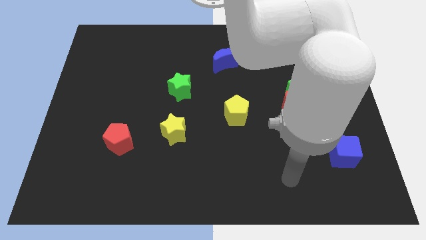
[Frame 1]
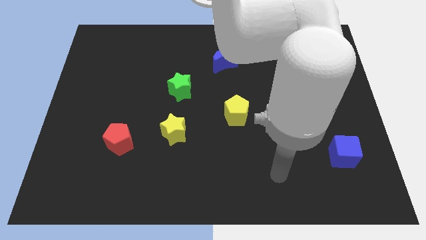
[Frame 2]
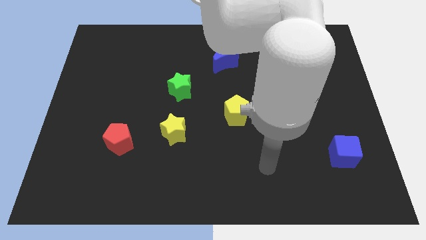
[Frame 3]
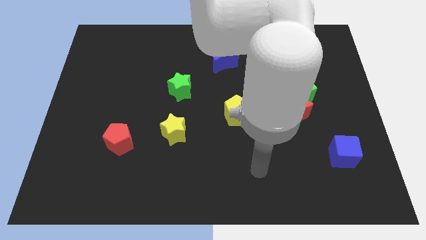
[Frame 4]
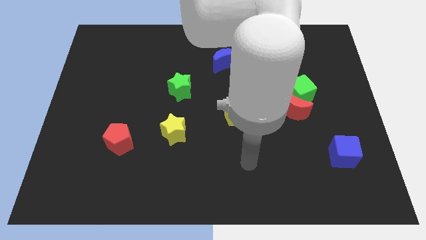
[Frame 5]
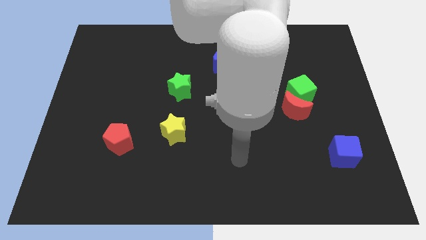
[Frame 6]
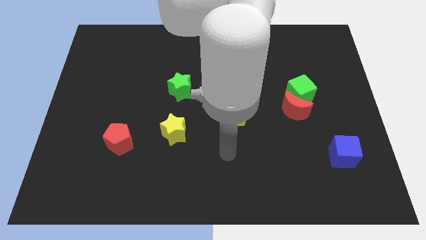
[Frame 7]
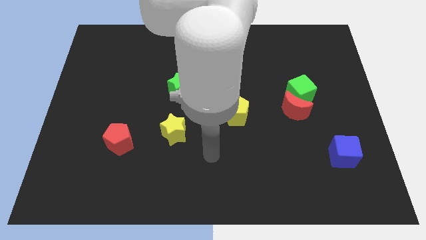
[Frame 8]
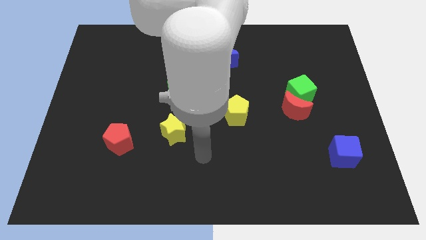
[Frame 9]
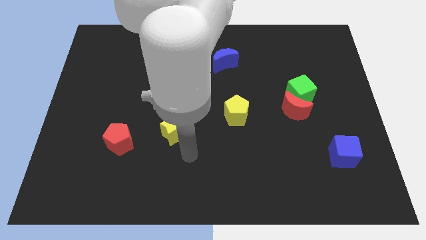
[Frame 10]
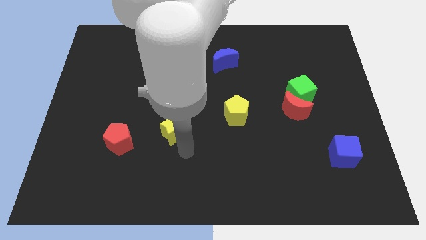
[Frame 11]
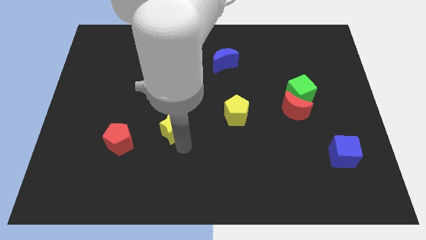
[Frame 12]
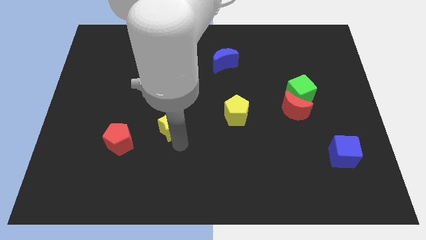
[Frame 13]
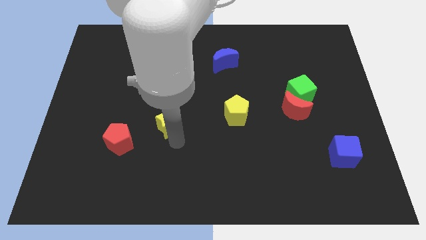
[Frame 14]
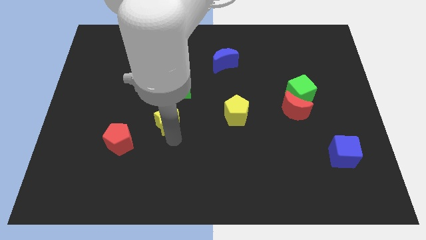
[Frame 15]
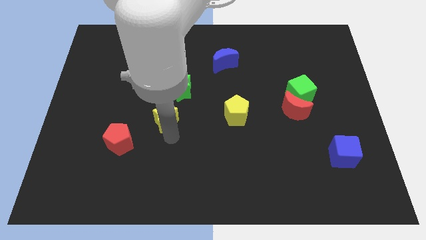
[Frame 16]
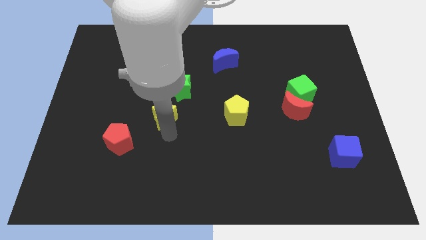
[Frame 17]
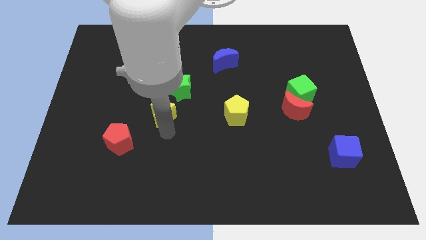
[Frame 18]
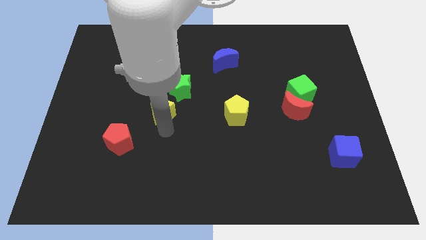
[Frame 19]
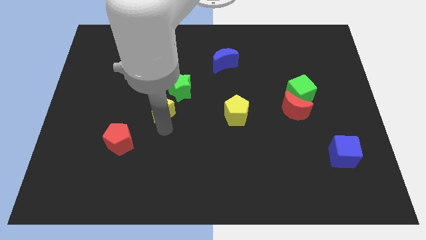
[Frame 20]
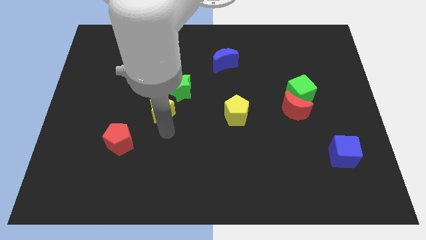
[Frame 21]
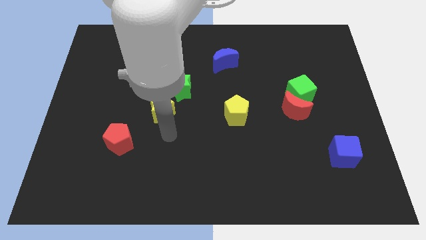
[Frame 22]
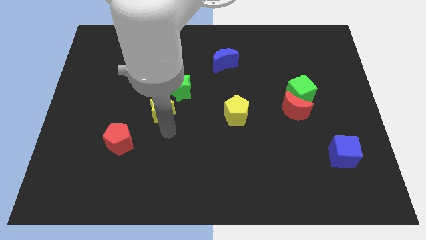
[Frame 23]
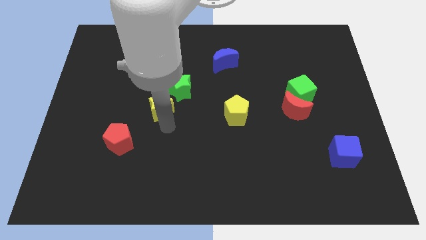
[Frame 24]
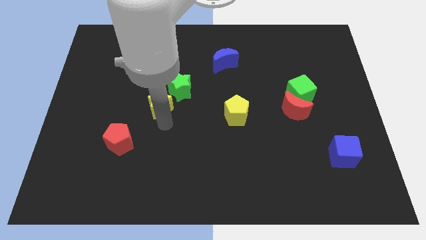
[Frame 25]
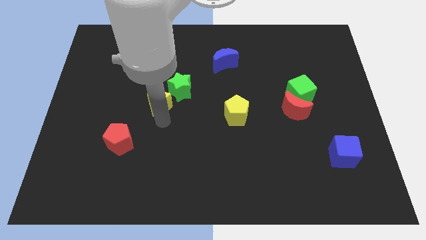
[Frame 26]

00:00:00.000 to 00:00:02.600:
slightly push the yellow star upwards

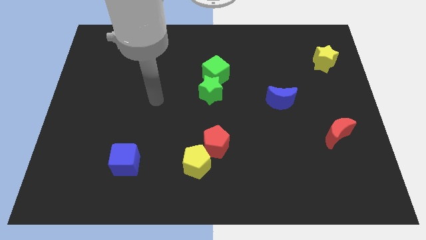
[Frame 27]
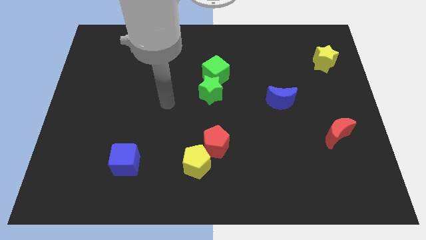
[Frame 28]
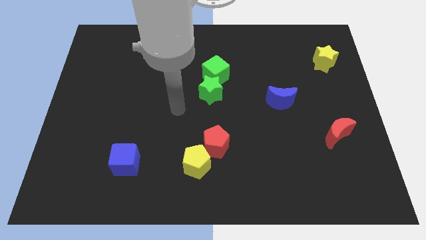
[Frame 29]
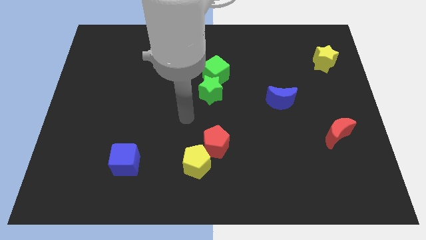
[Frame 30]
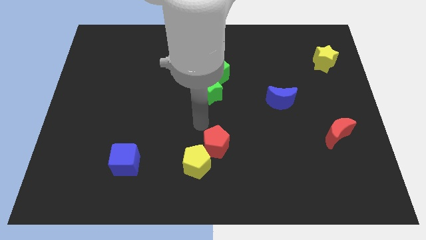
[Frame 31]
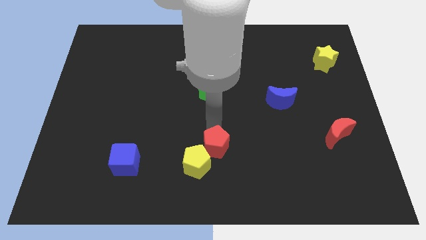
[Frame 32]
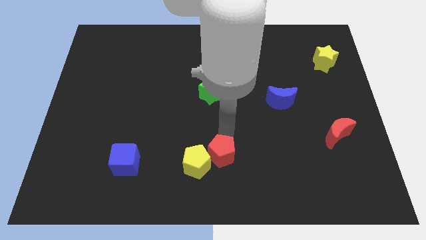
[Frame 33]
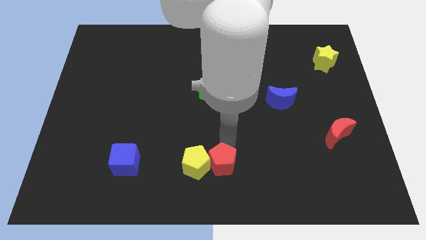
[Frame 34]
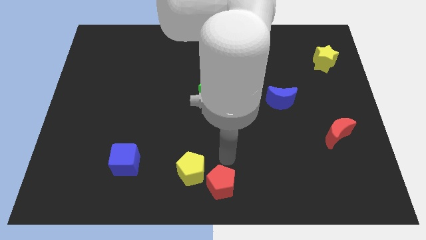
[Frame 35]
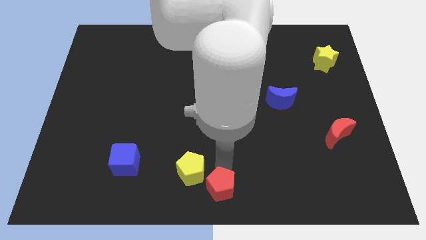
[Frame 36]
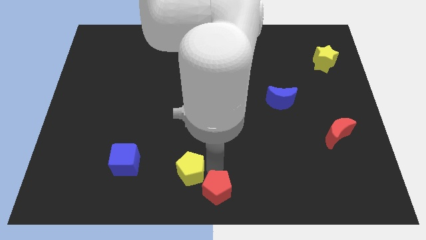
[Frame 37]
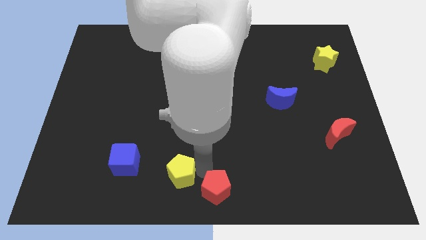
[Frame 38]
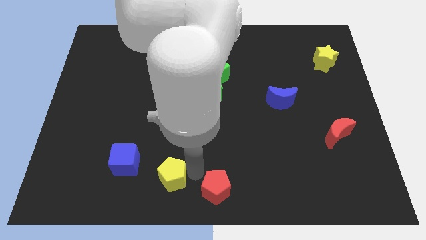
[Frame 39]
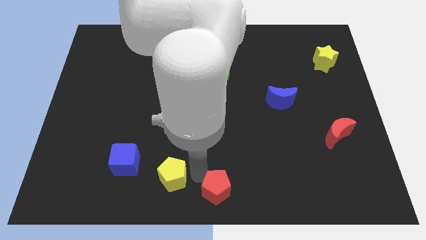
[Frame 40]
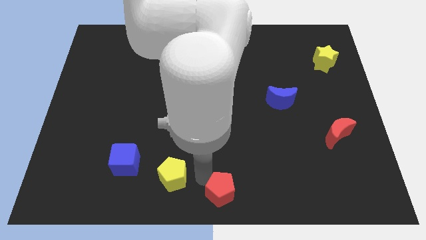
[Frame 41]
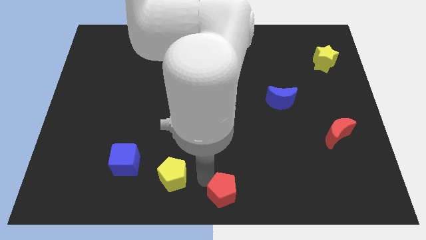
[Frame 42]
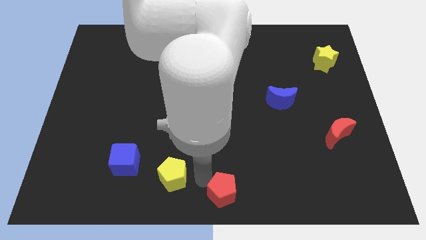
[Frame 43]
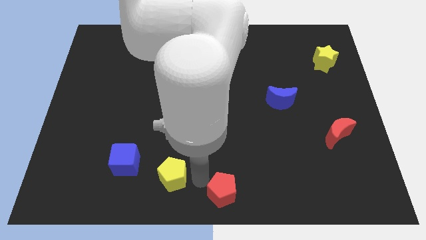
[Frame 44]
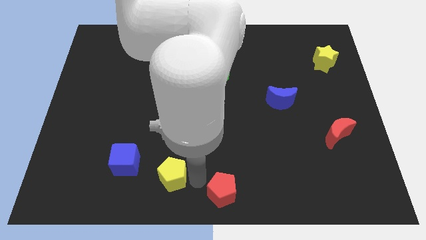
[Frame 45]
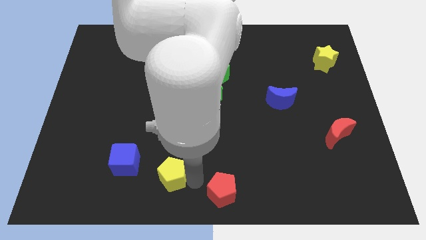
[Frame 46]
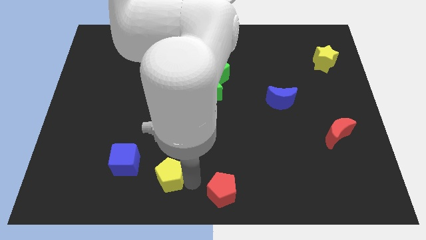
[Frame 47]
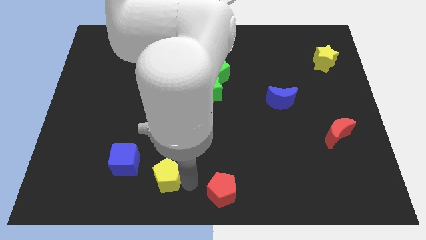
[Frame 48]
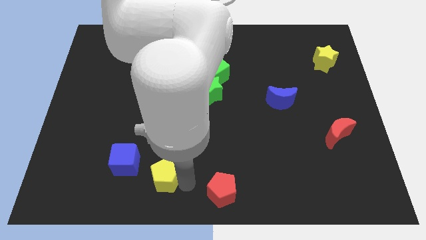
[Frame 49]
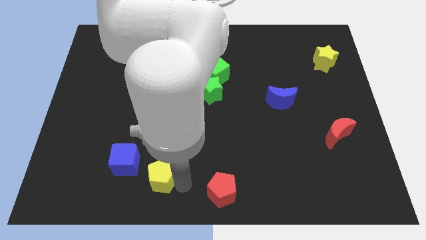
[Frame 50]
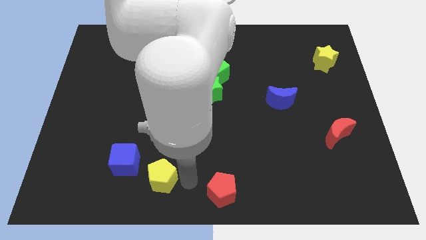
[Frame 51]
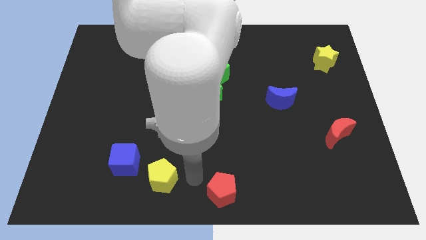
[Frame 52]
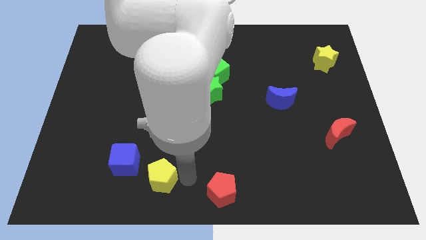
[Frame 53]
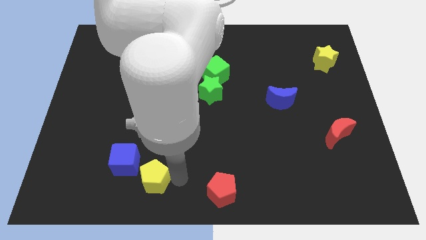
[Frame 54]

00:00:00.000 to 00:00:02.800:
slightly move the yellow pentagon left

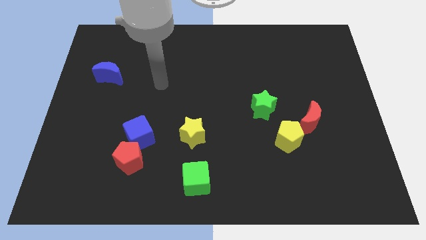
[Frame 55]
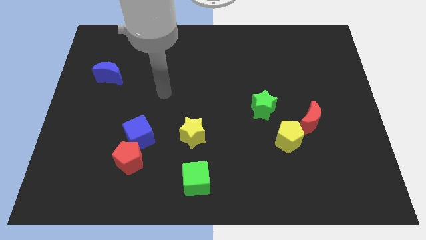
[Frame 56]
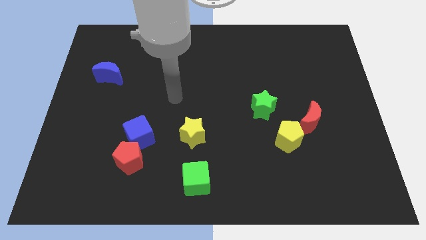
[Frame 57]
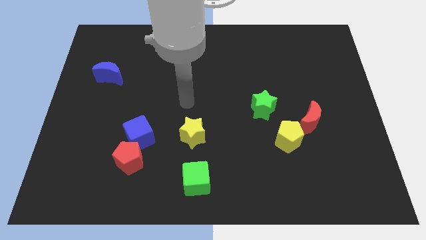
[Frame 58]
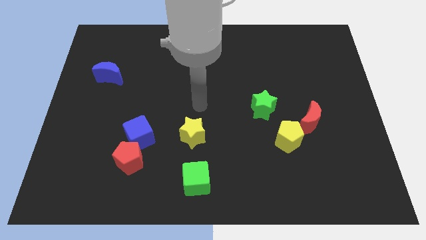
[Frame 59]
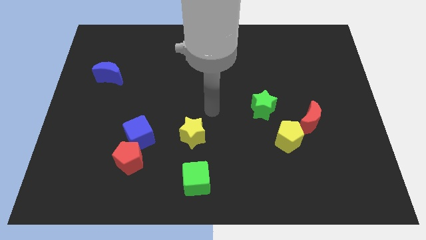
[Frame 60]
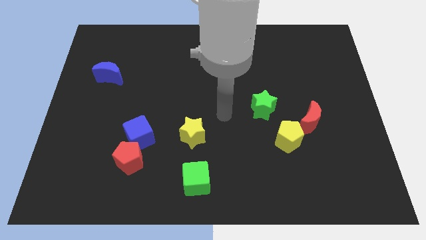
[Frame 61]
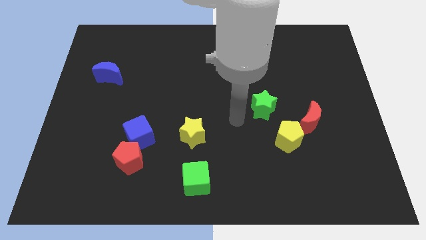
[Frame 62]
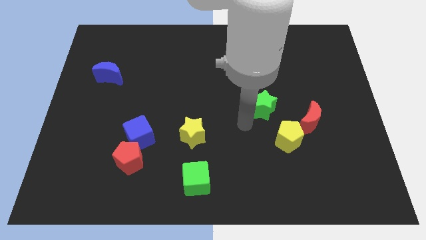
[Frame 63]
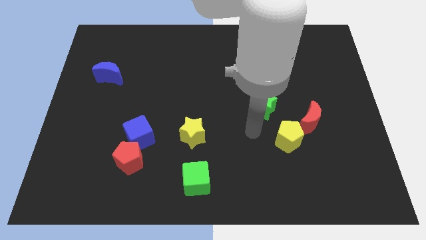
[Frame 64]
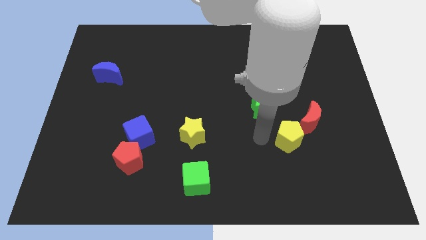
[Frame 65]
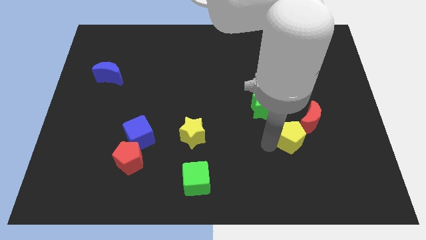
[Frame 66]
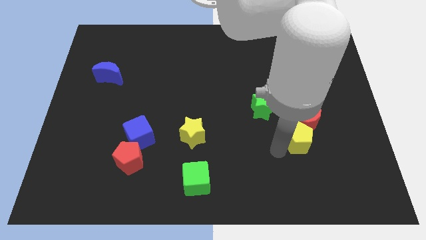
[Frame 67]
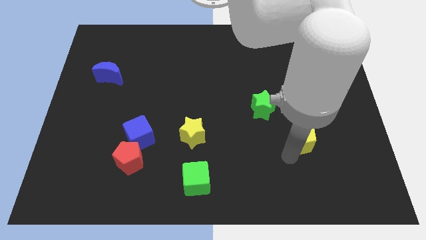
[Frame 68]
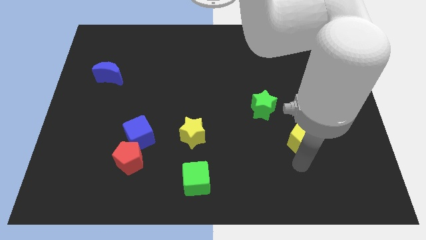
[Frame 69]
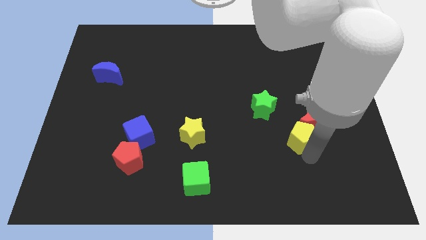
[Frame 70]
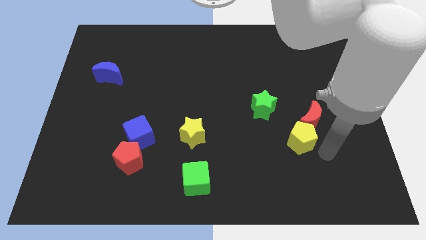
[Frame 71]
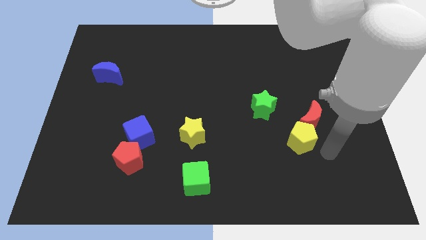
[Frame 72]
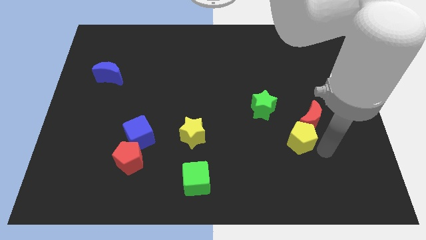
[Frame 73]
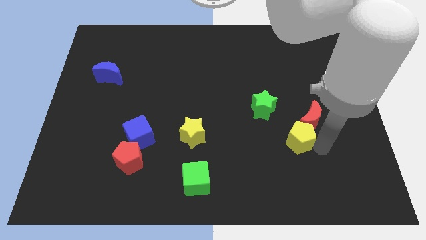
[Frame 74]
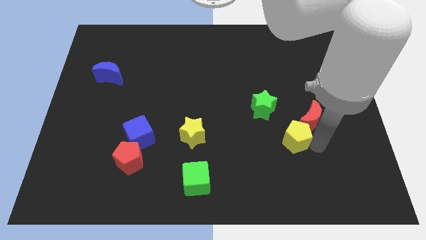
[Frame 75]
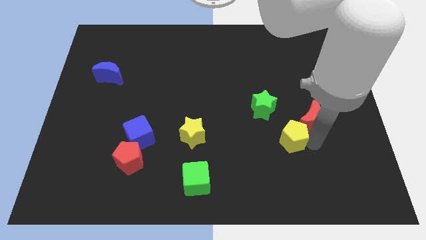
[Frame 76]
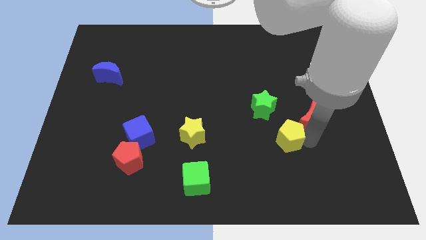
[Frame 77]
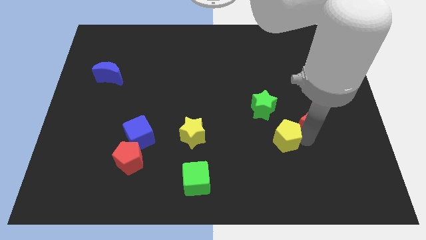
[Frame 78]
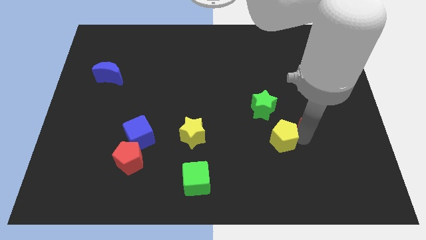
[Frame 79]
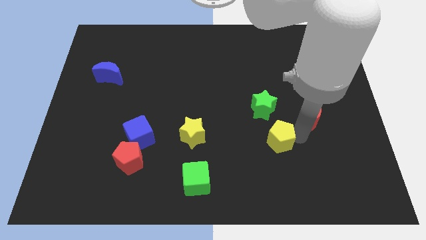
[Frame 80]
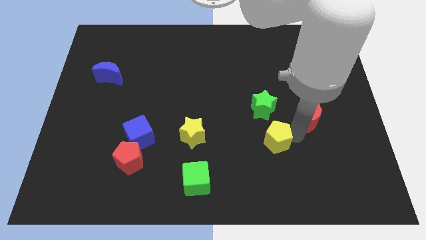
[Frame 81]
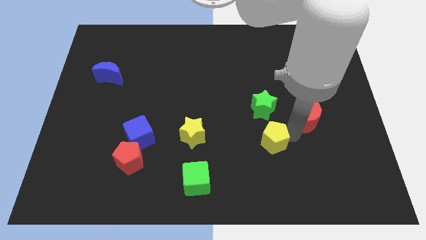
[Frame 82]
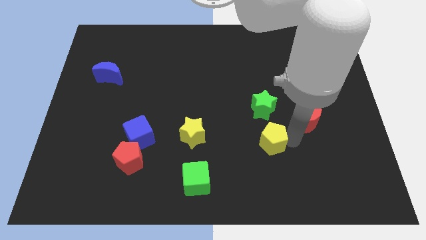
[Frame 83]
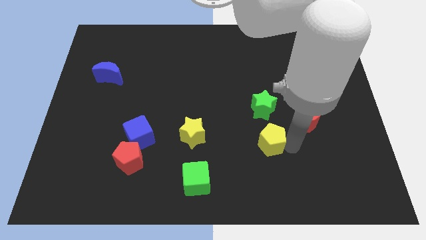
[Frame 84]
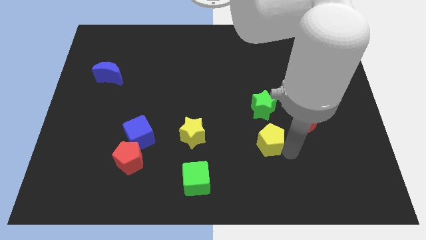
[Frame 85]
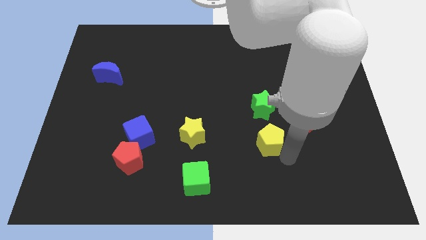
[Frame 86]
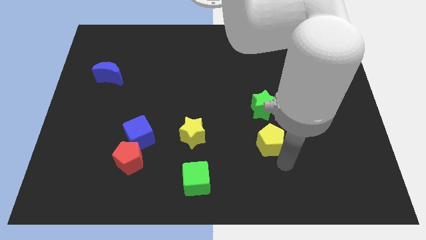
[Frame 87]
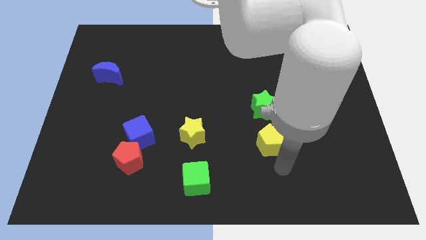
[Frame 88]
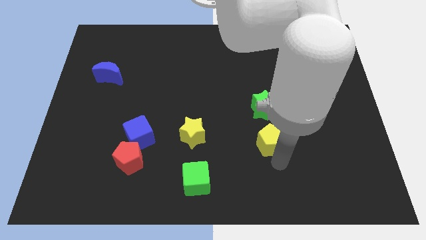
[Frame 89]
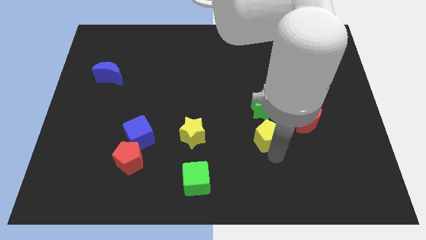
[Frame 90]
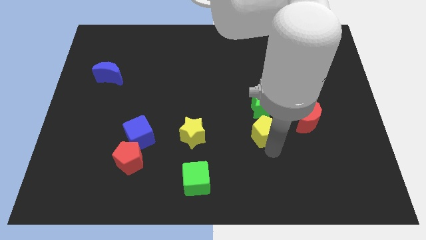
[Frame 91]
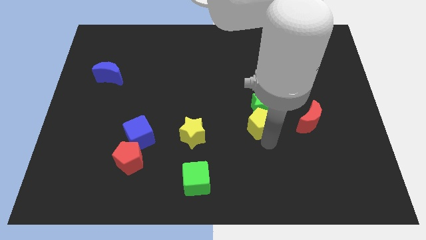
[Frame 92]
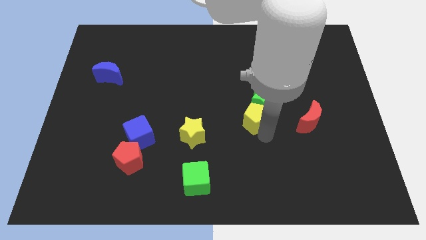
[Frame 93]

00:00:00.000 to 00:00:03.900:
push the yellow pentagon somewhat diagonally up and to the left
